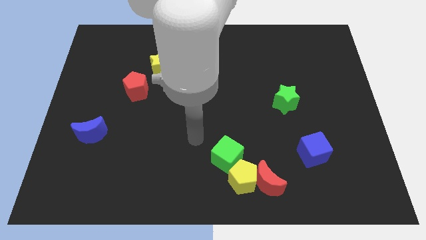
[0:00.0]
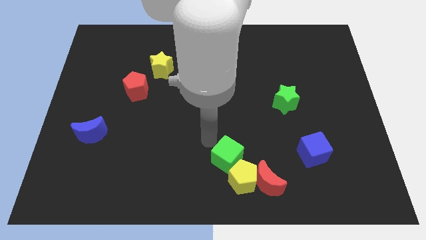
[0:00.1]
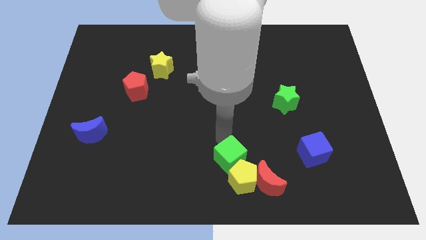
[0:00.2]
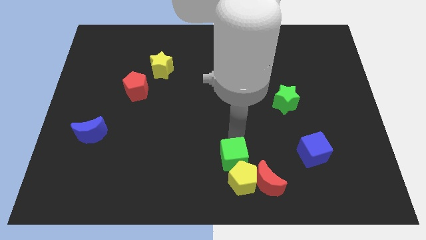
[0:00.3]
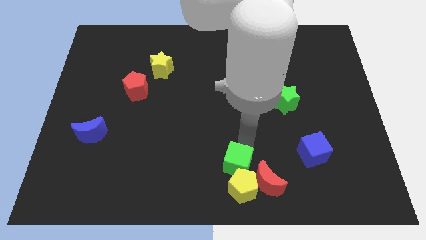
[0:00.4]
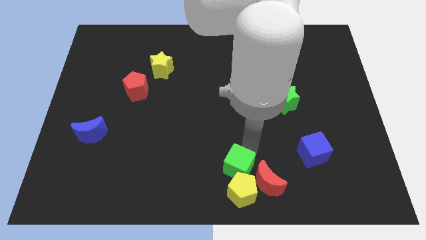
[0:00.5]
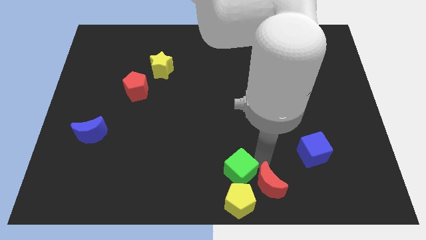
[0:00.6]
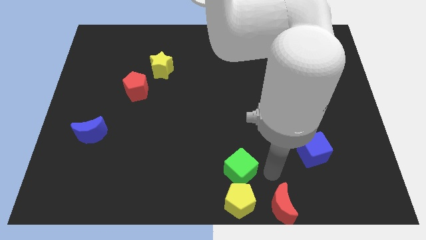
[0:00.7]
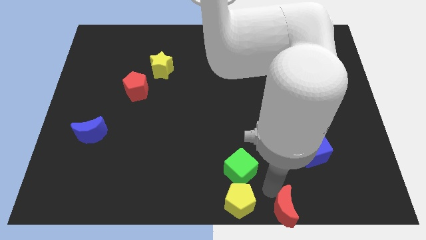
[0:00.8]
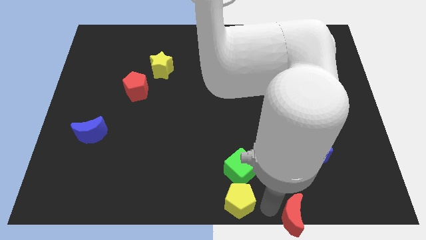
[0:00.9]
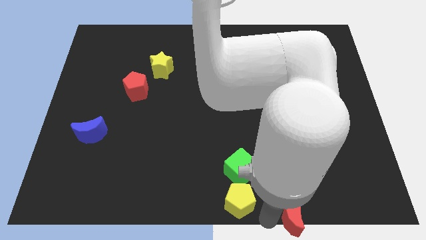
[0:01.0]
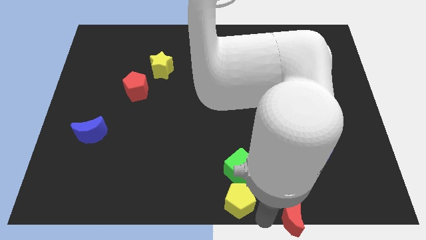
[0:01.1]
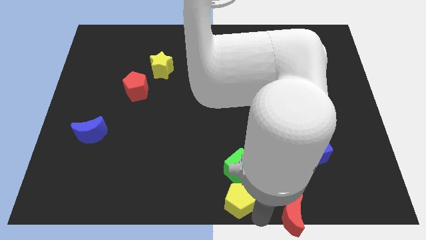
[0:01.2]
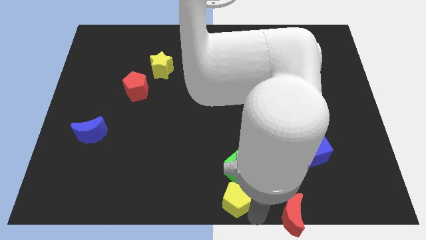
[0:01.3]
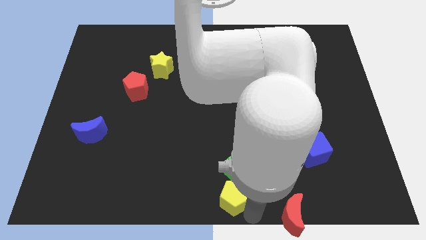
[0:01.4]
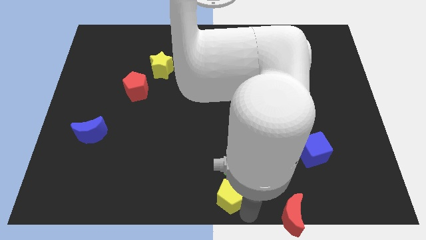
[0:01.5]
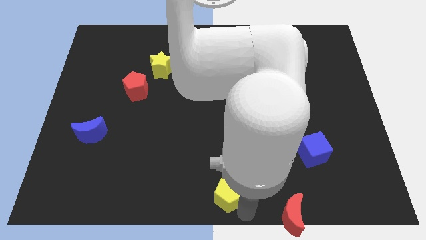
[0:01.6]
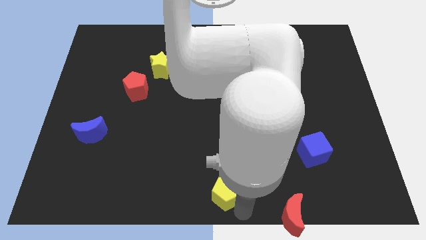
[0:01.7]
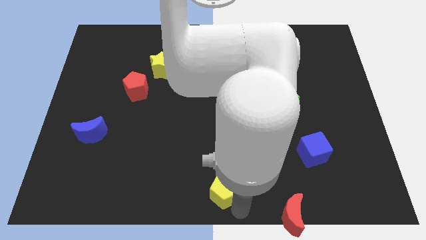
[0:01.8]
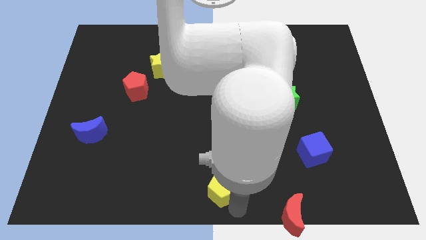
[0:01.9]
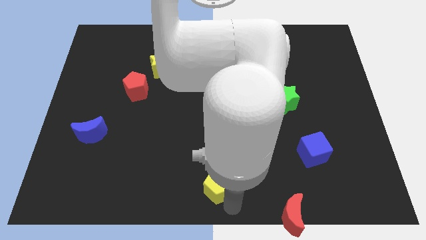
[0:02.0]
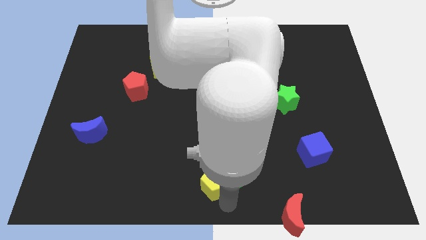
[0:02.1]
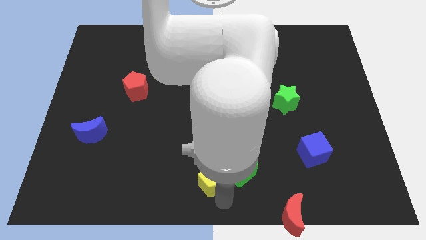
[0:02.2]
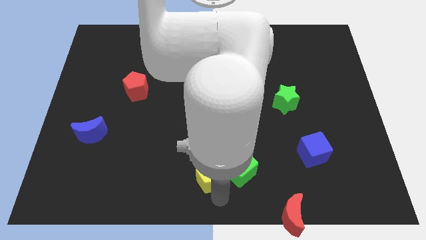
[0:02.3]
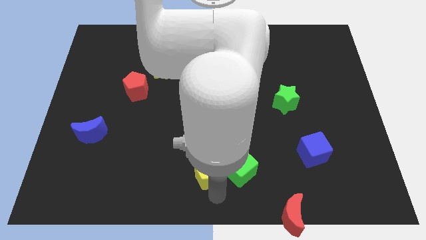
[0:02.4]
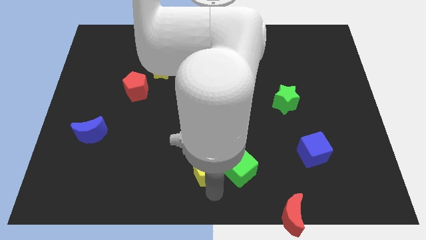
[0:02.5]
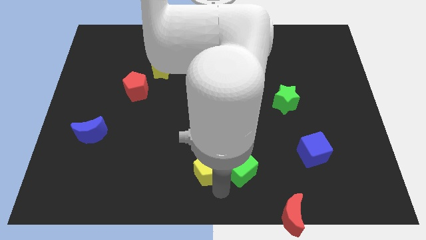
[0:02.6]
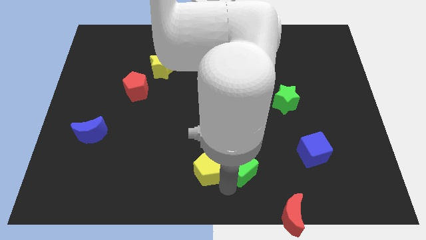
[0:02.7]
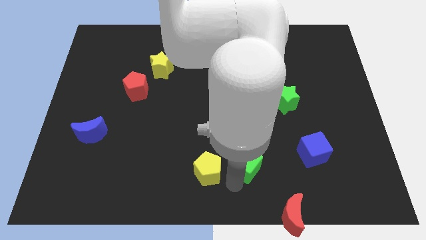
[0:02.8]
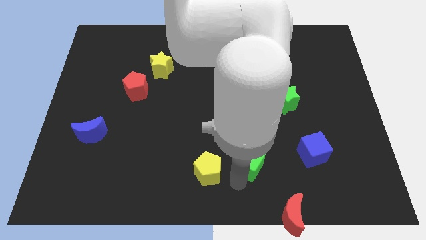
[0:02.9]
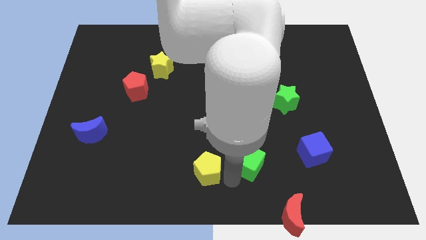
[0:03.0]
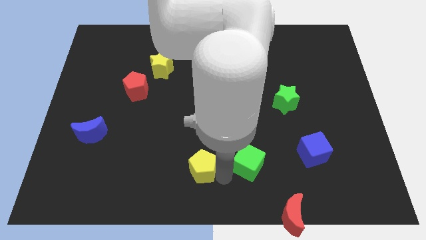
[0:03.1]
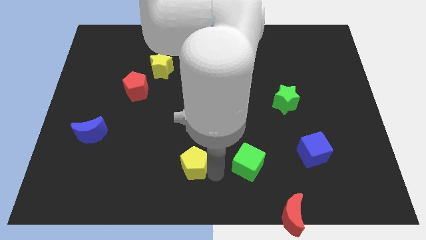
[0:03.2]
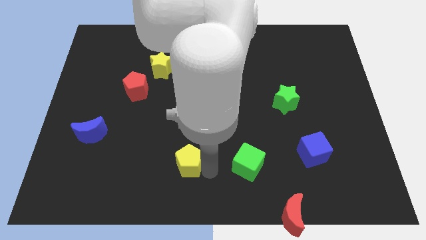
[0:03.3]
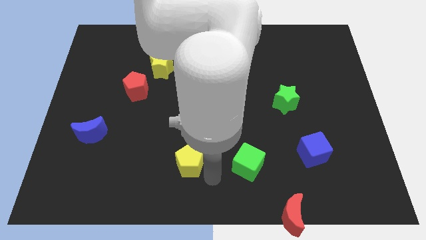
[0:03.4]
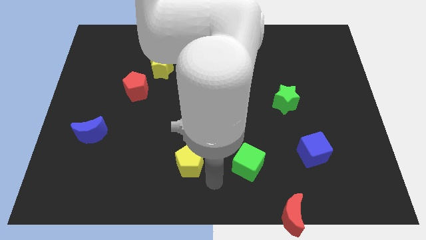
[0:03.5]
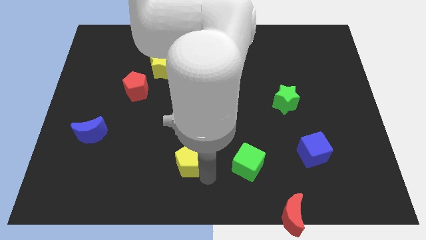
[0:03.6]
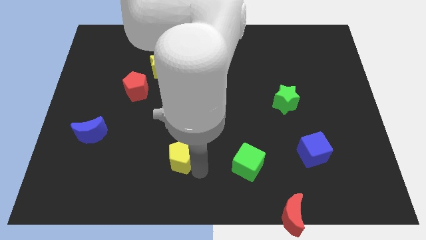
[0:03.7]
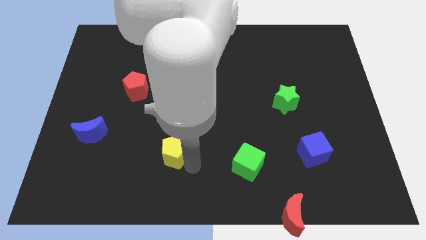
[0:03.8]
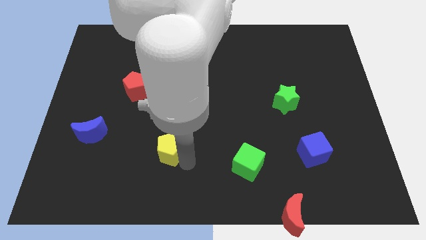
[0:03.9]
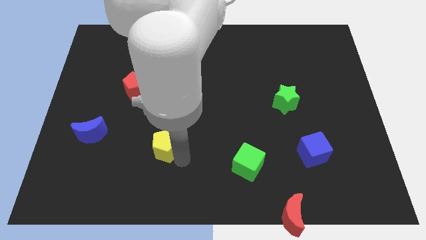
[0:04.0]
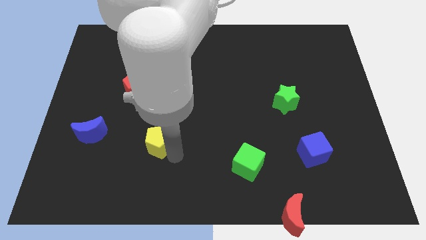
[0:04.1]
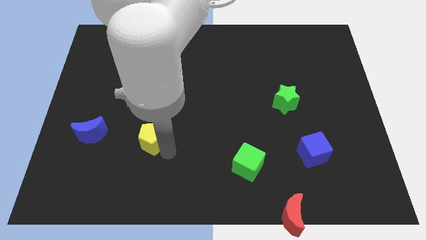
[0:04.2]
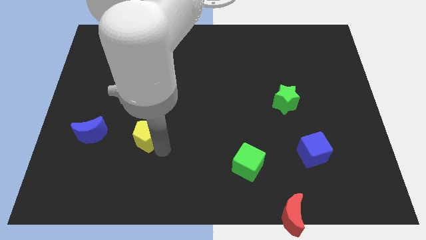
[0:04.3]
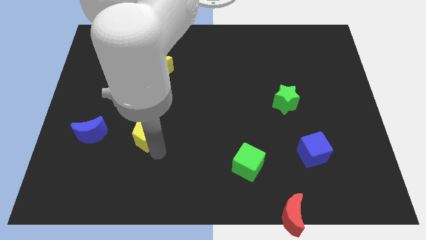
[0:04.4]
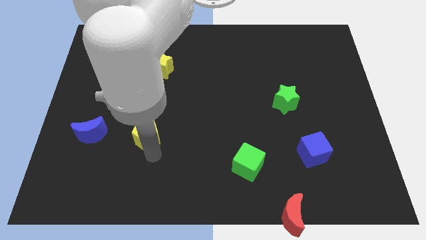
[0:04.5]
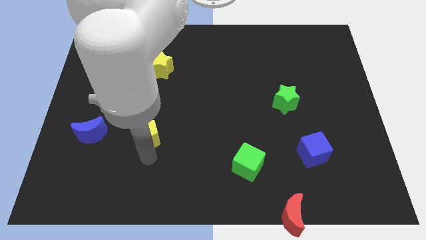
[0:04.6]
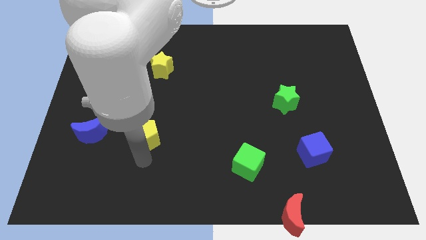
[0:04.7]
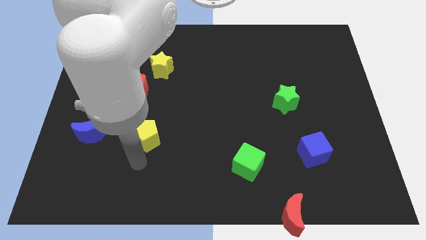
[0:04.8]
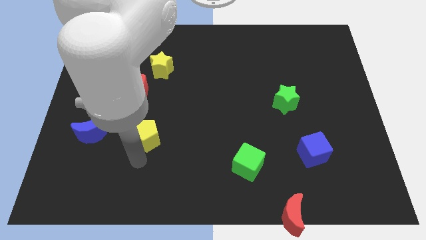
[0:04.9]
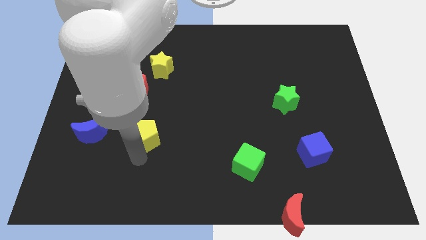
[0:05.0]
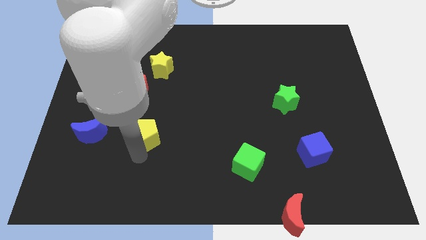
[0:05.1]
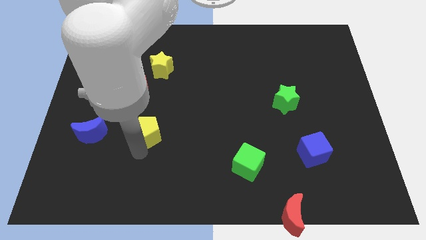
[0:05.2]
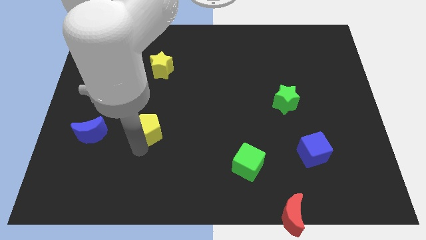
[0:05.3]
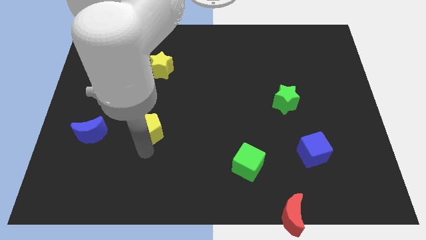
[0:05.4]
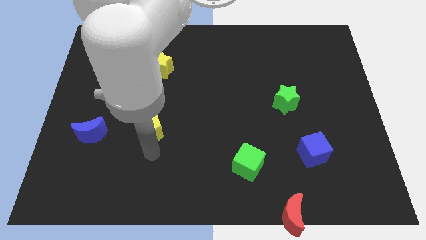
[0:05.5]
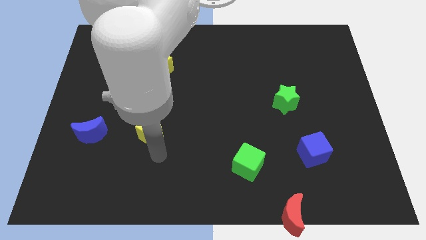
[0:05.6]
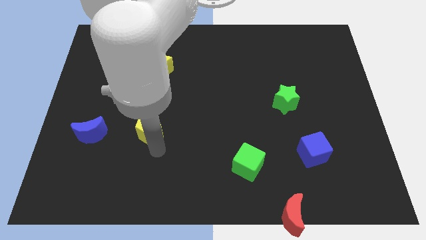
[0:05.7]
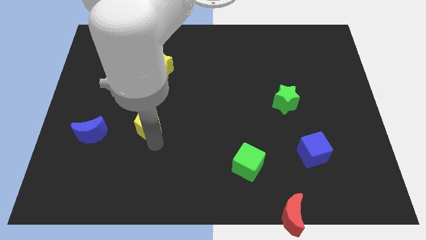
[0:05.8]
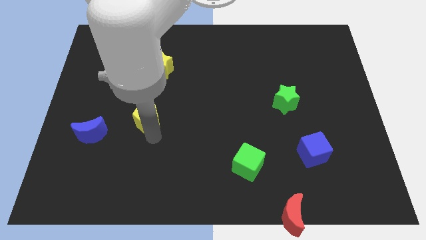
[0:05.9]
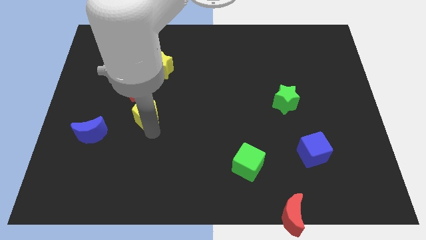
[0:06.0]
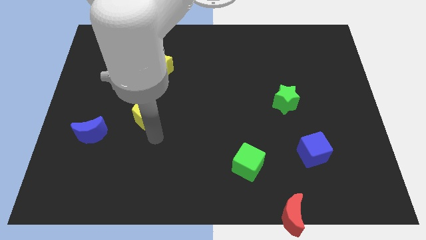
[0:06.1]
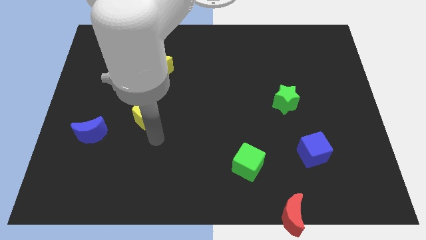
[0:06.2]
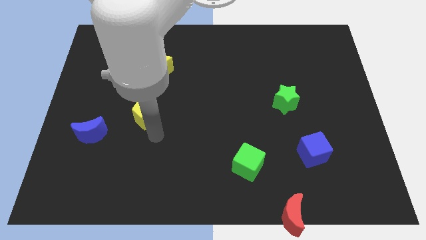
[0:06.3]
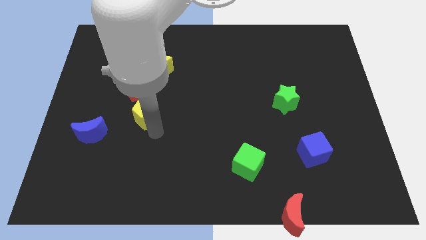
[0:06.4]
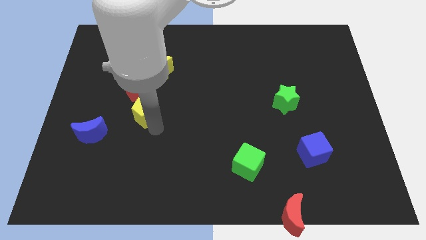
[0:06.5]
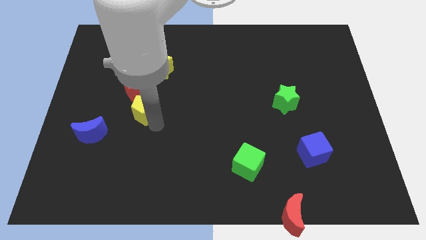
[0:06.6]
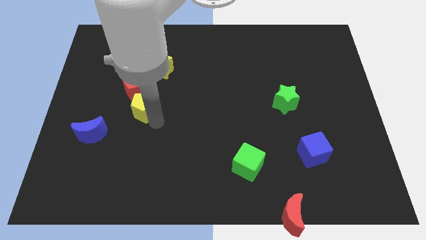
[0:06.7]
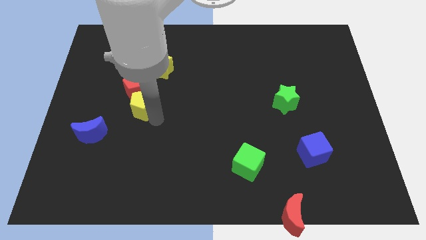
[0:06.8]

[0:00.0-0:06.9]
slide the yellow pentagon close to the red pentagon
